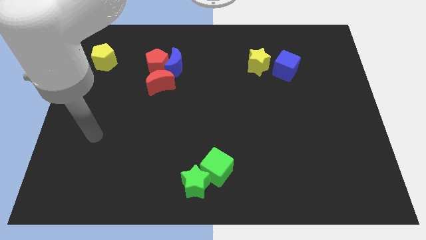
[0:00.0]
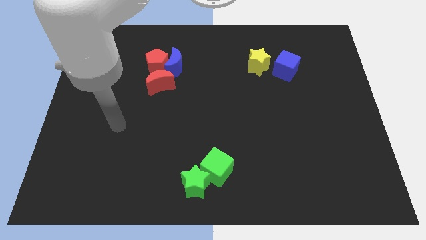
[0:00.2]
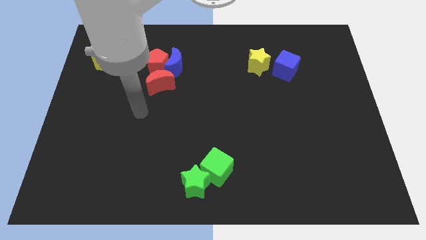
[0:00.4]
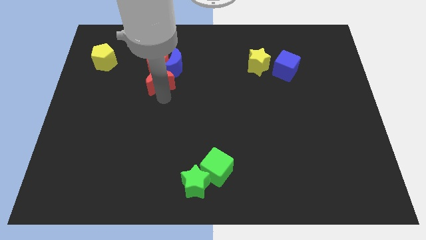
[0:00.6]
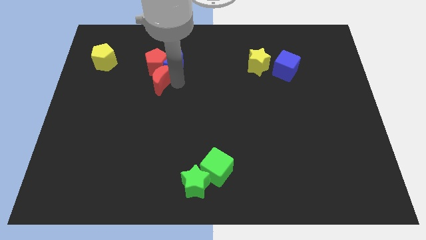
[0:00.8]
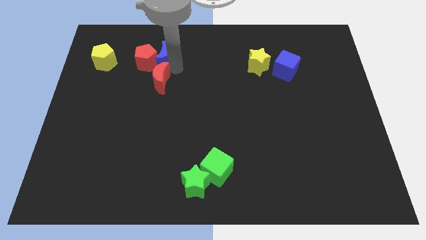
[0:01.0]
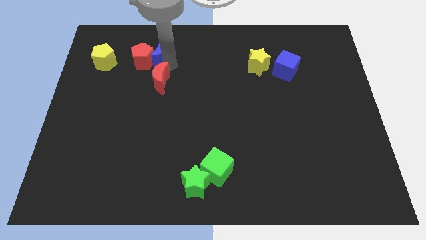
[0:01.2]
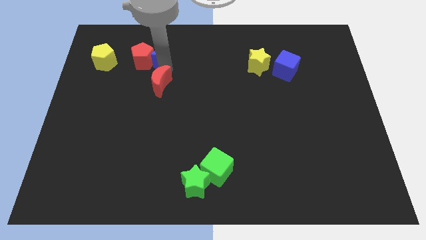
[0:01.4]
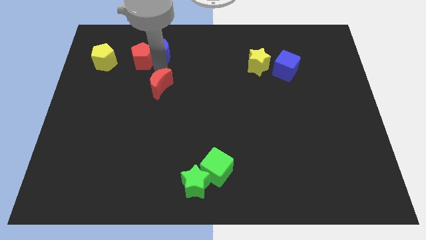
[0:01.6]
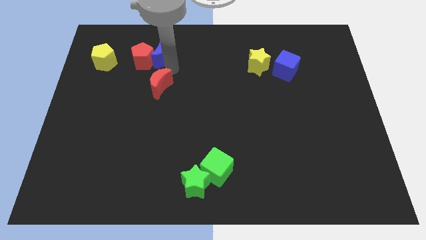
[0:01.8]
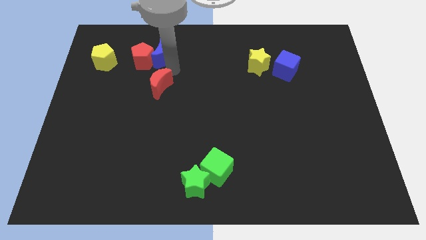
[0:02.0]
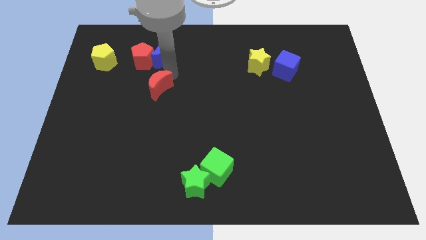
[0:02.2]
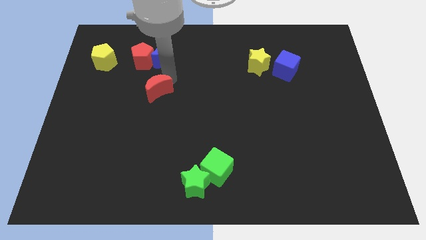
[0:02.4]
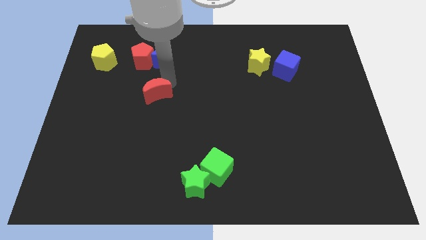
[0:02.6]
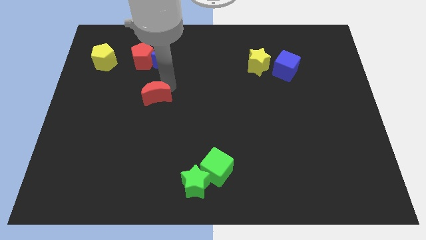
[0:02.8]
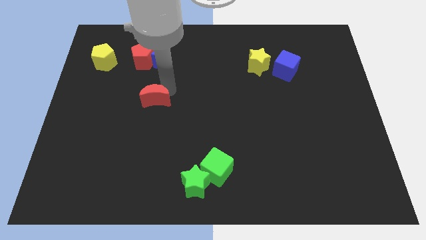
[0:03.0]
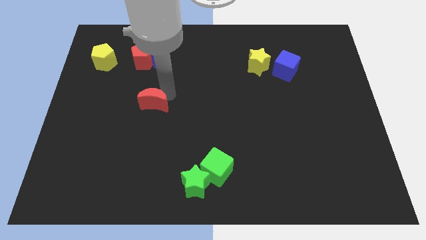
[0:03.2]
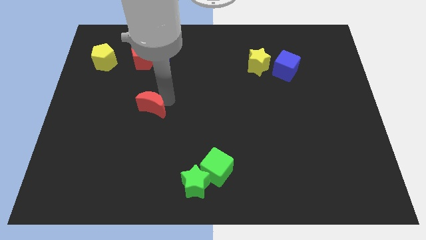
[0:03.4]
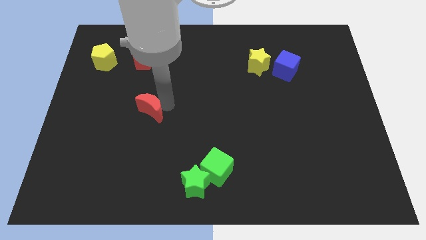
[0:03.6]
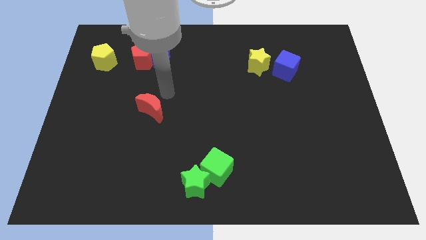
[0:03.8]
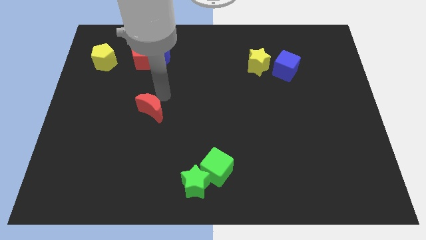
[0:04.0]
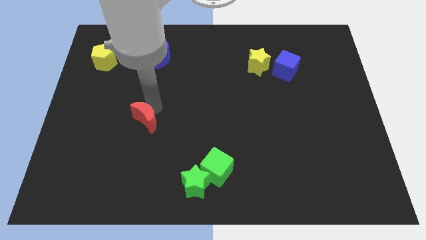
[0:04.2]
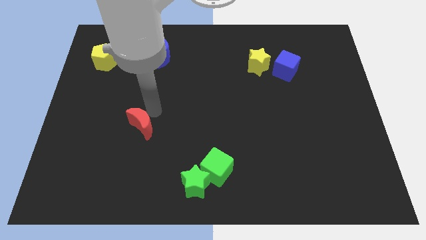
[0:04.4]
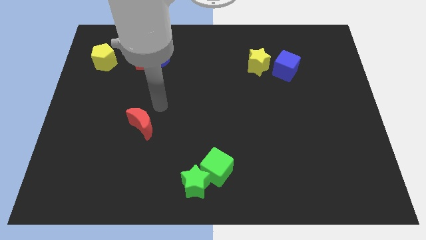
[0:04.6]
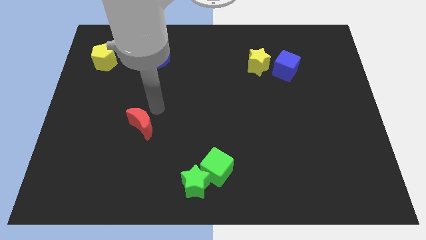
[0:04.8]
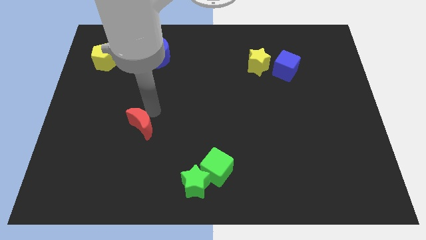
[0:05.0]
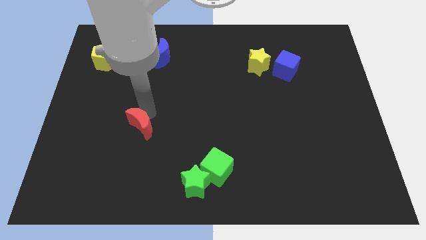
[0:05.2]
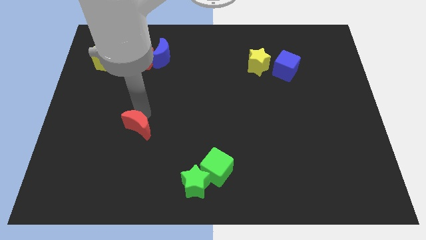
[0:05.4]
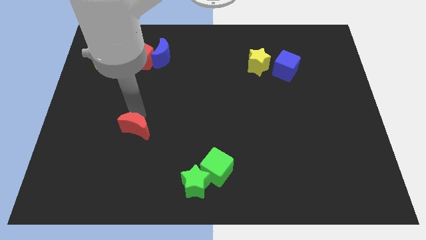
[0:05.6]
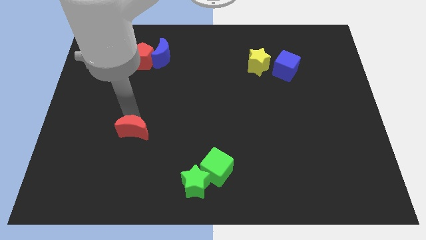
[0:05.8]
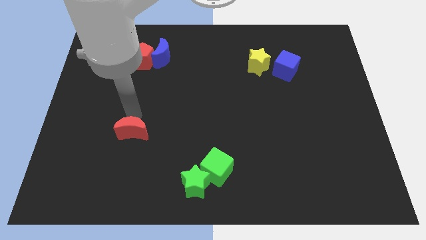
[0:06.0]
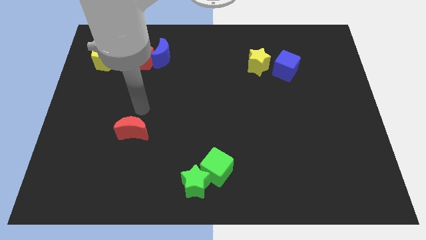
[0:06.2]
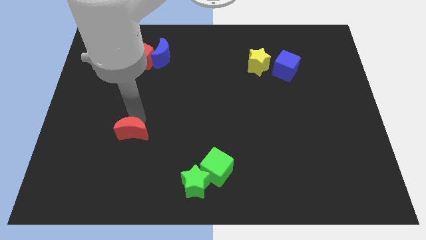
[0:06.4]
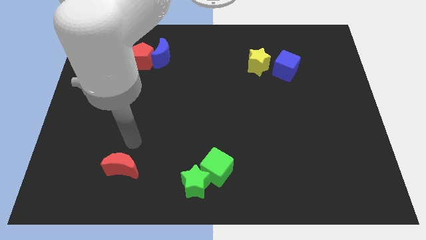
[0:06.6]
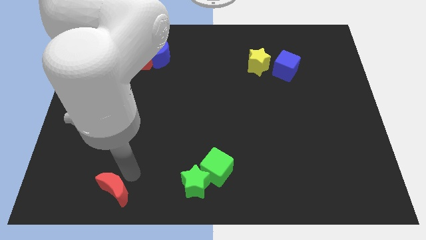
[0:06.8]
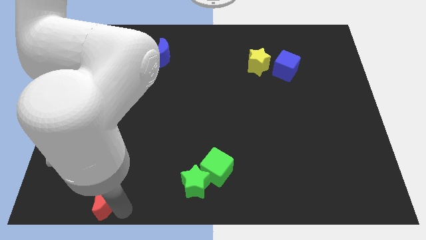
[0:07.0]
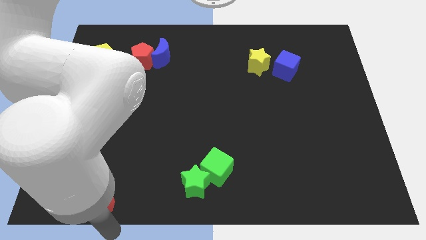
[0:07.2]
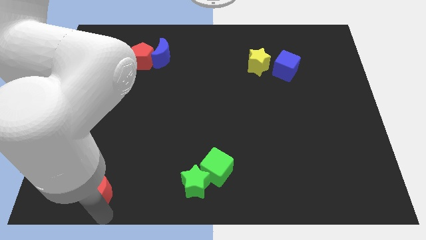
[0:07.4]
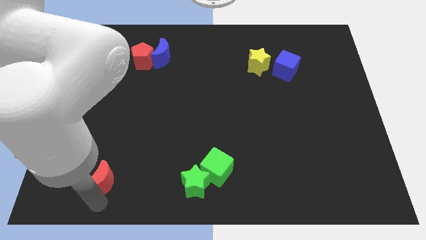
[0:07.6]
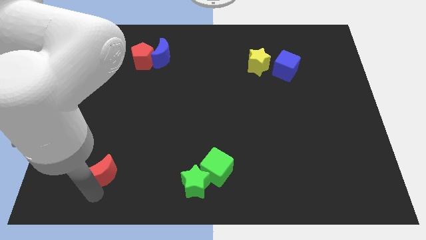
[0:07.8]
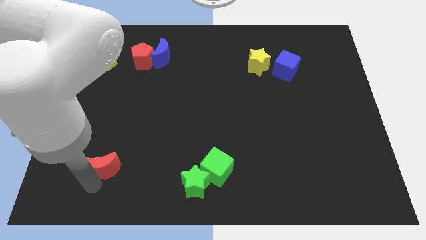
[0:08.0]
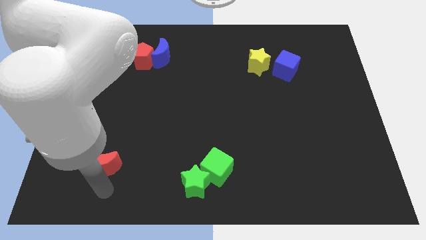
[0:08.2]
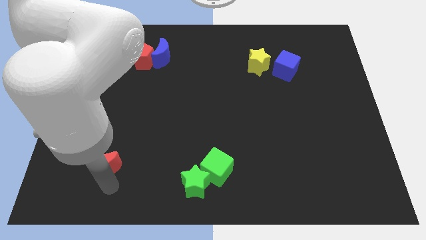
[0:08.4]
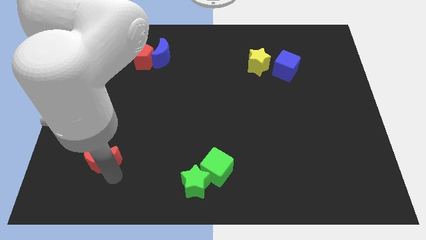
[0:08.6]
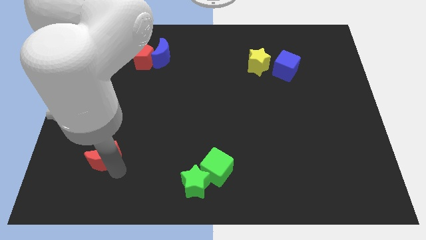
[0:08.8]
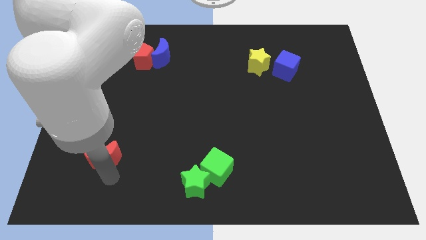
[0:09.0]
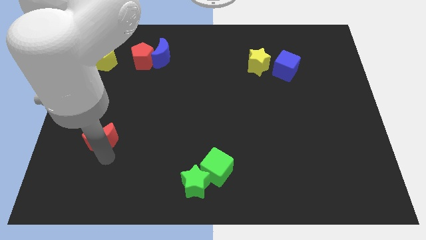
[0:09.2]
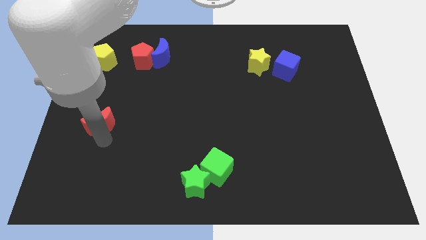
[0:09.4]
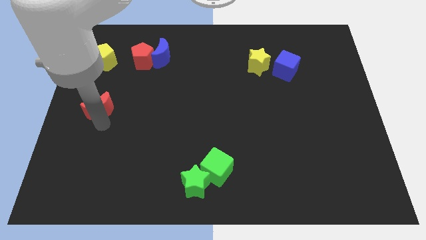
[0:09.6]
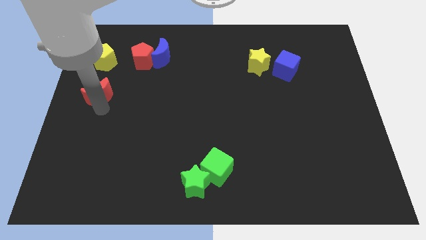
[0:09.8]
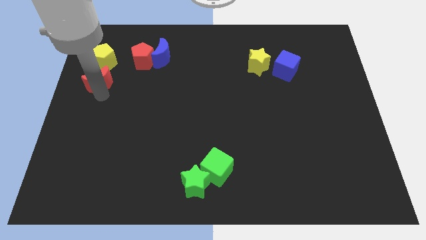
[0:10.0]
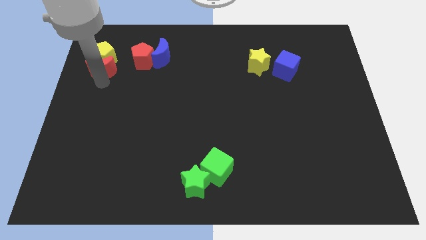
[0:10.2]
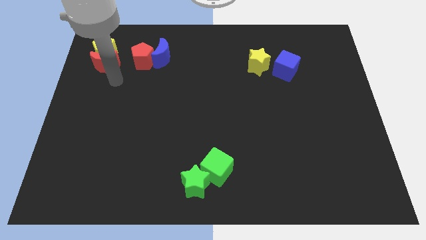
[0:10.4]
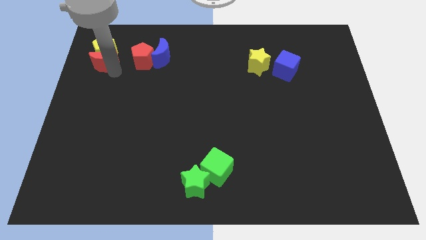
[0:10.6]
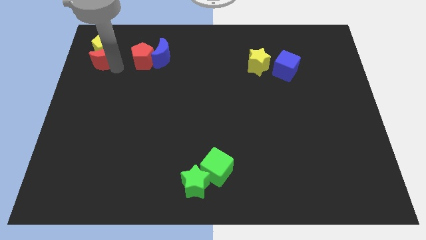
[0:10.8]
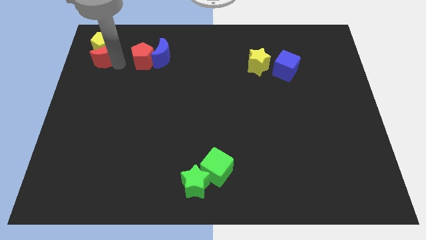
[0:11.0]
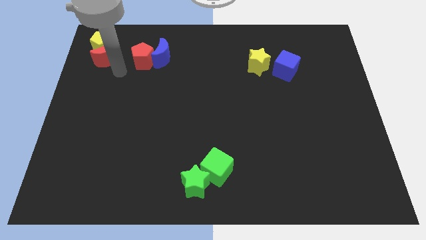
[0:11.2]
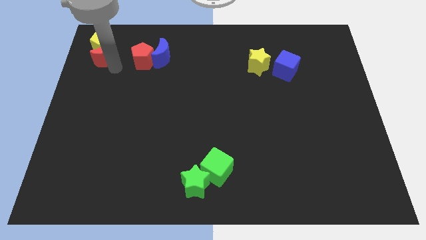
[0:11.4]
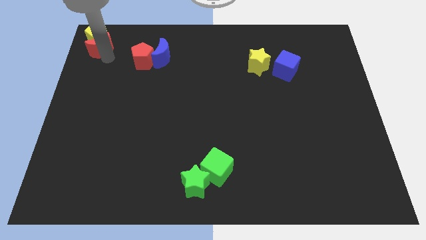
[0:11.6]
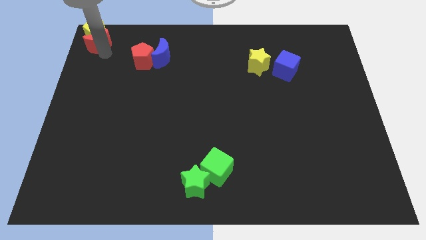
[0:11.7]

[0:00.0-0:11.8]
move the red moon to the top left

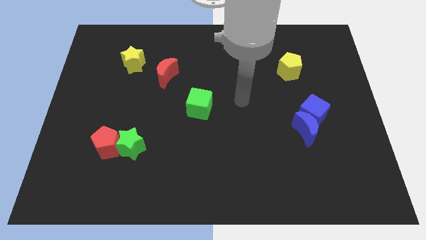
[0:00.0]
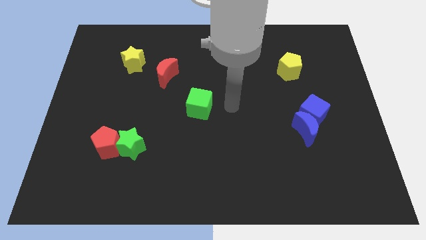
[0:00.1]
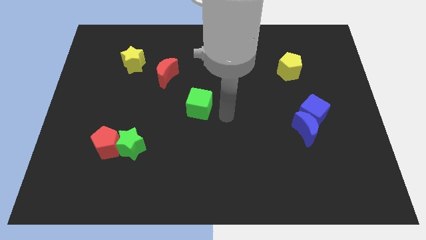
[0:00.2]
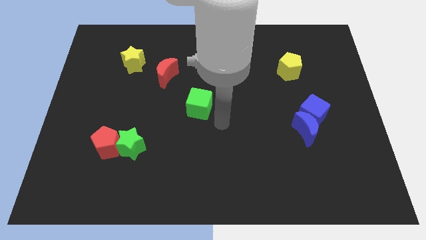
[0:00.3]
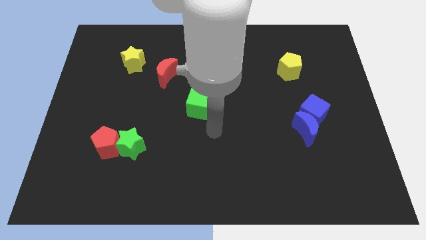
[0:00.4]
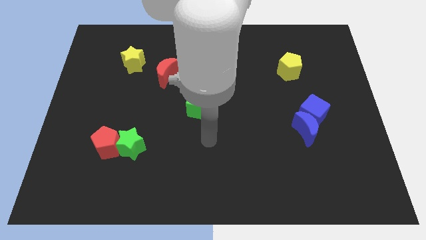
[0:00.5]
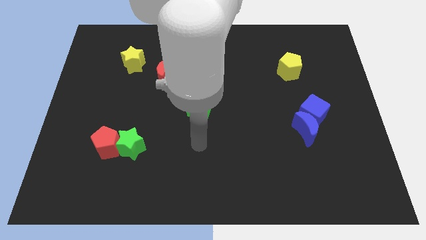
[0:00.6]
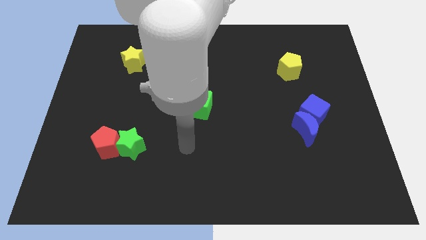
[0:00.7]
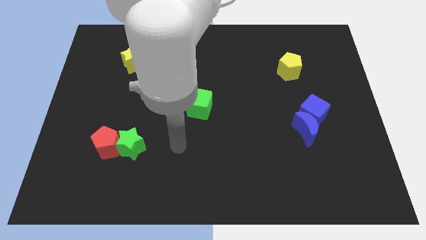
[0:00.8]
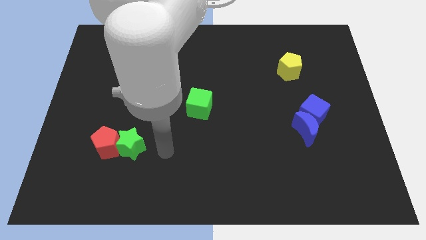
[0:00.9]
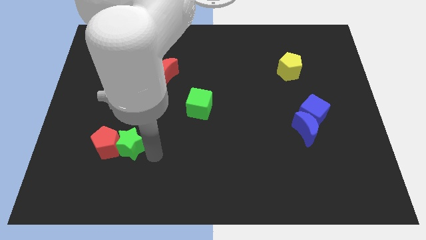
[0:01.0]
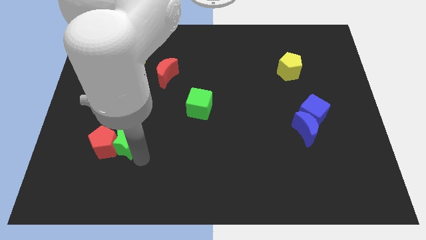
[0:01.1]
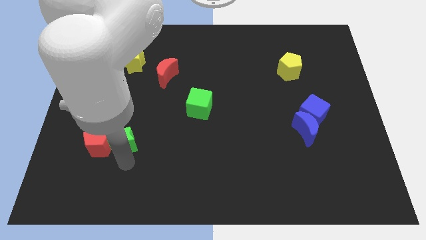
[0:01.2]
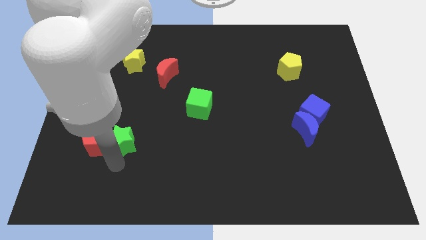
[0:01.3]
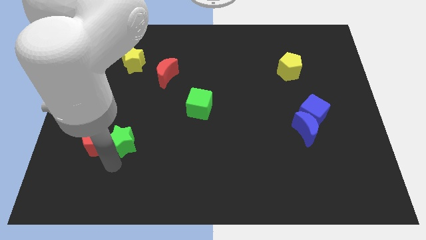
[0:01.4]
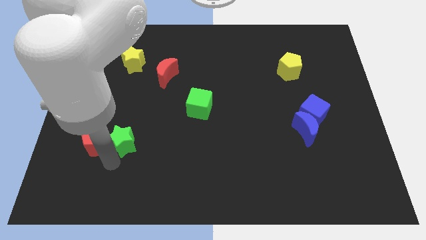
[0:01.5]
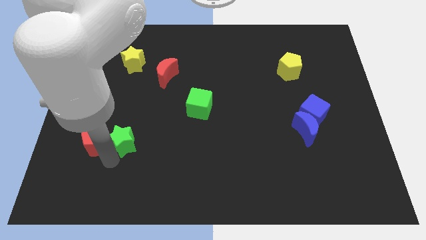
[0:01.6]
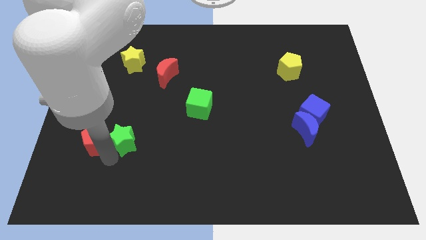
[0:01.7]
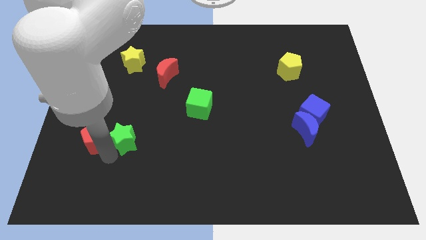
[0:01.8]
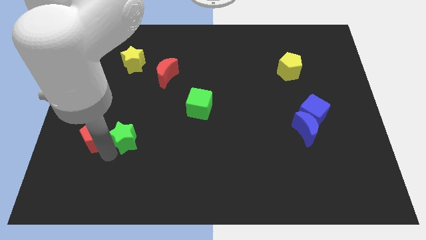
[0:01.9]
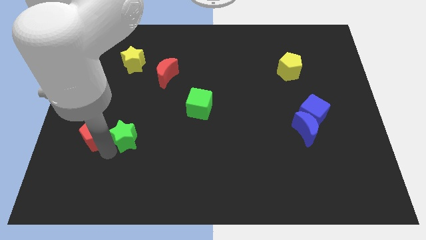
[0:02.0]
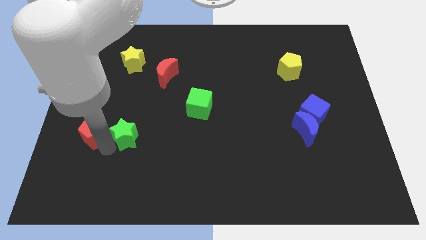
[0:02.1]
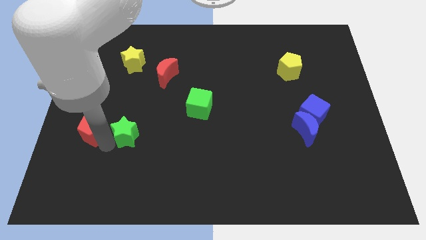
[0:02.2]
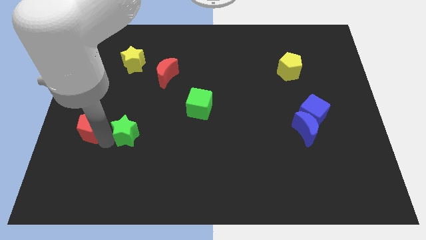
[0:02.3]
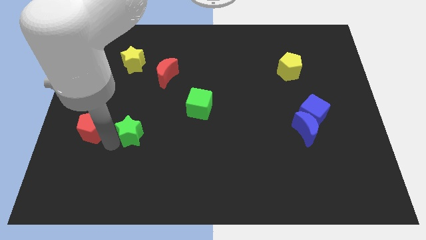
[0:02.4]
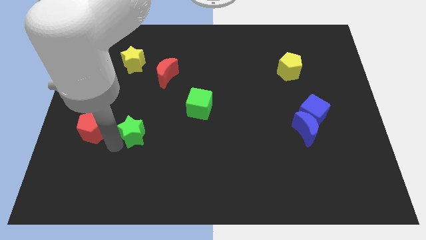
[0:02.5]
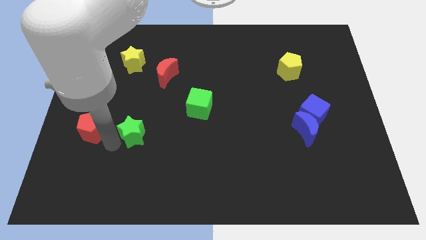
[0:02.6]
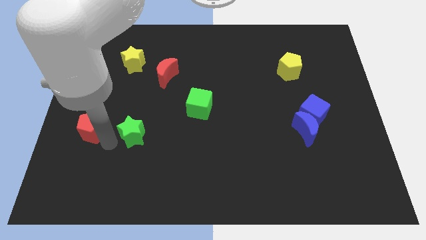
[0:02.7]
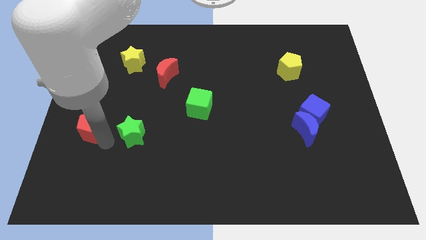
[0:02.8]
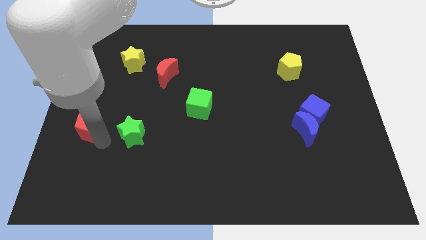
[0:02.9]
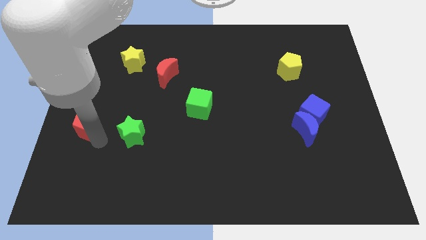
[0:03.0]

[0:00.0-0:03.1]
push the red pentagon to the left side of the board
